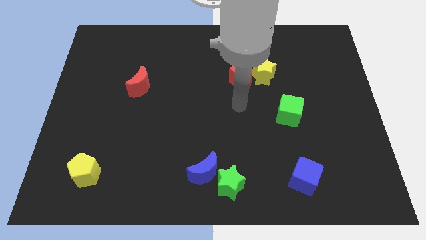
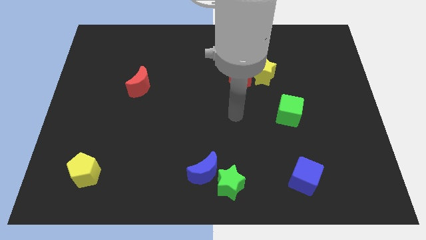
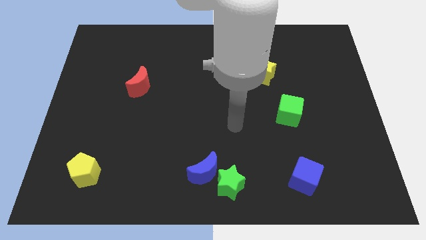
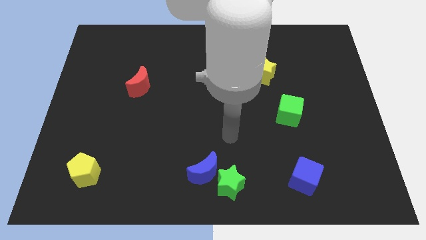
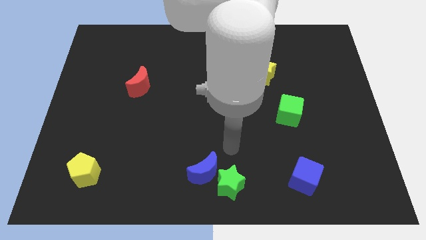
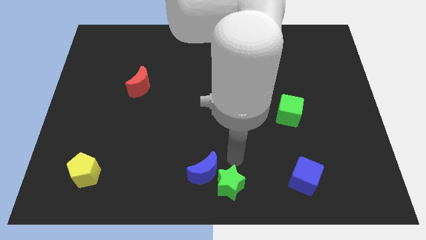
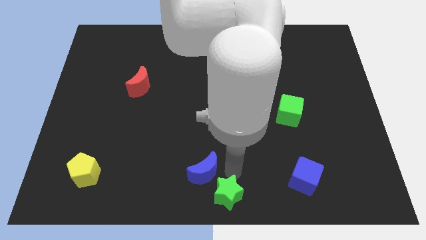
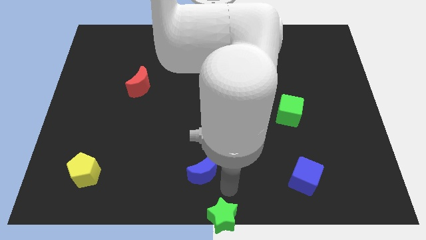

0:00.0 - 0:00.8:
separate the blue moon from the green star

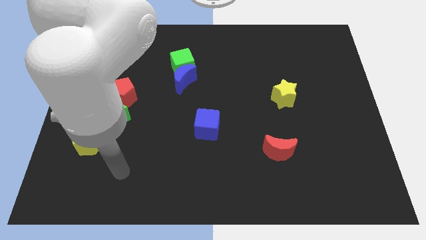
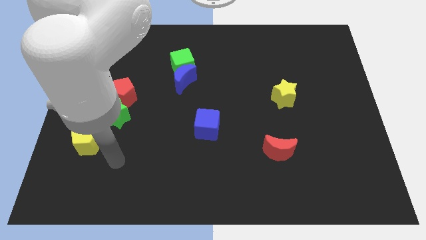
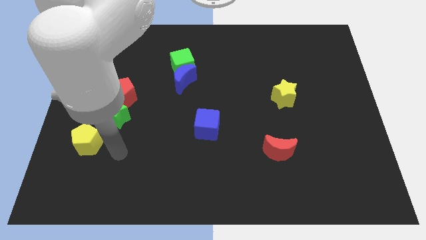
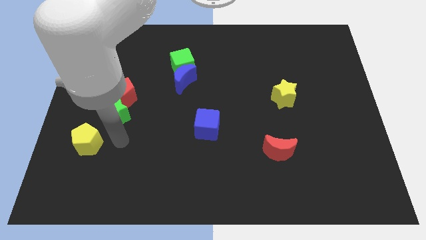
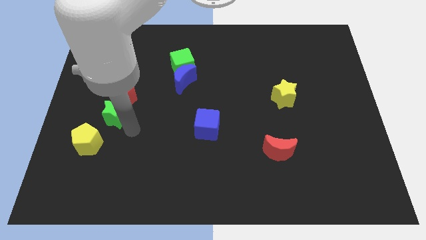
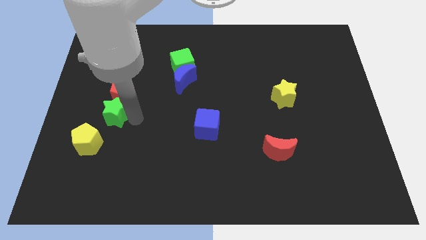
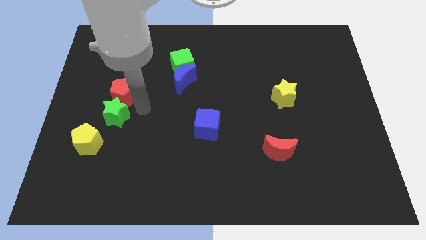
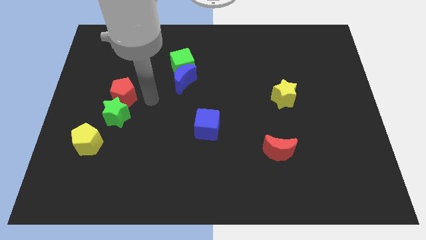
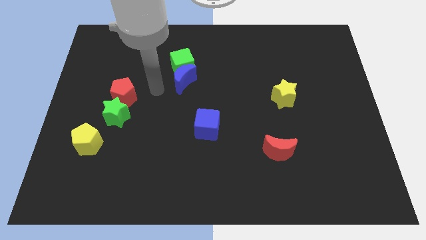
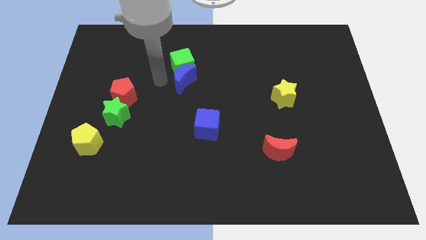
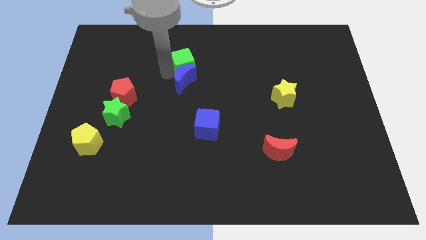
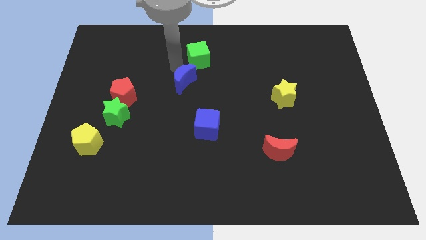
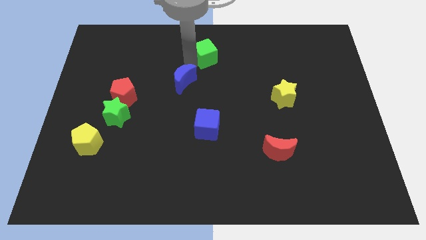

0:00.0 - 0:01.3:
pull the blue moon apart from the green cube

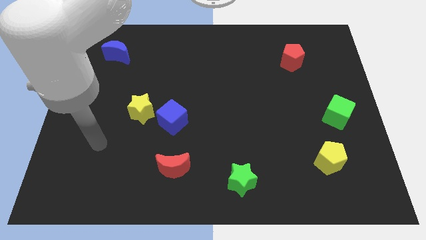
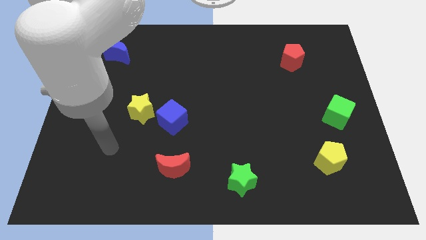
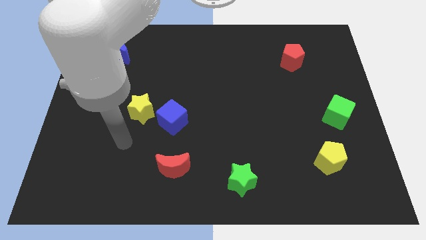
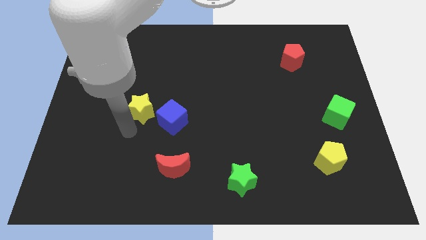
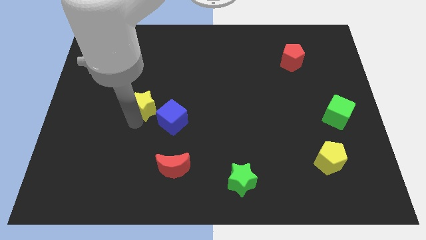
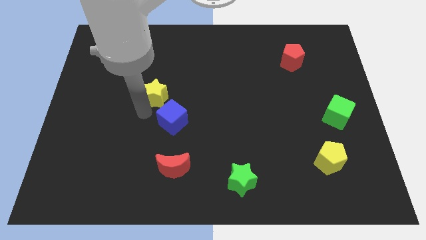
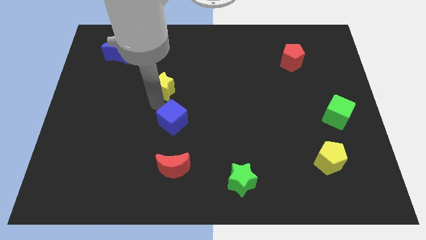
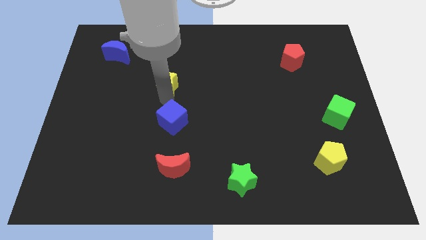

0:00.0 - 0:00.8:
pull the blue cube apart from the yellow star

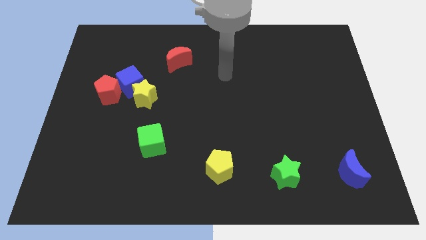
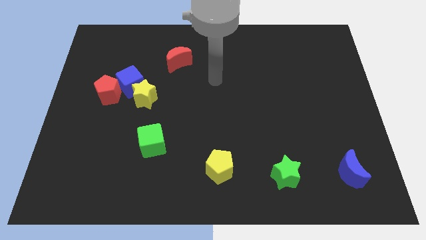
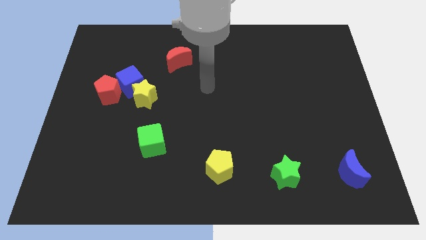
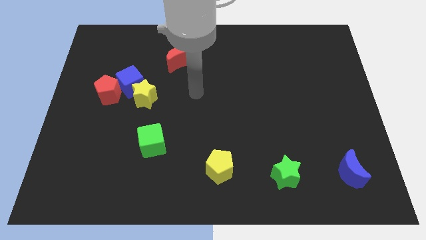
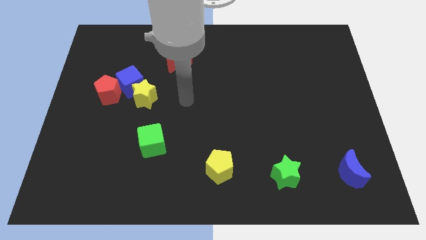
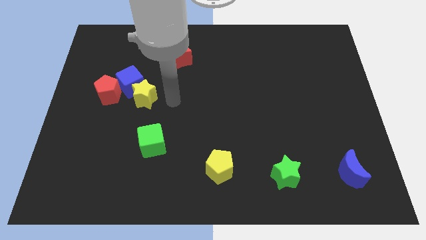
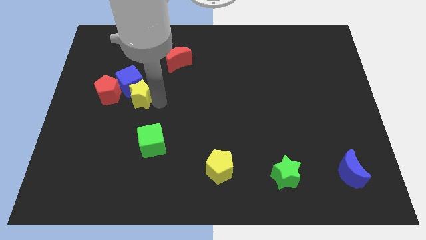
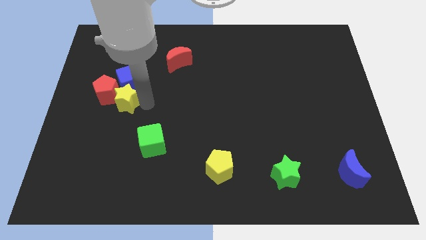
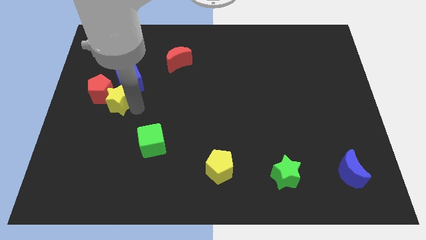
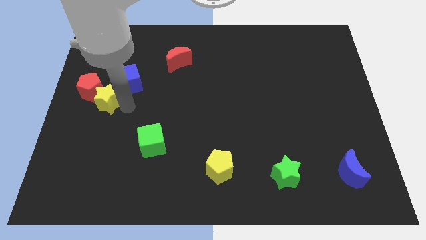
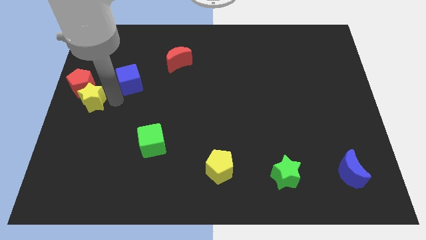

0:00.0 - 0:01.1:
separate the blue cube from the yellow star and red pentagon

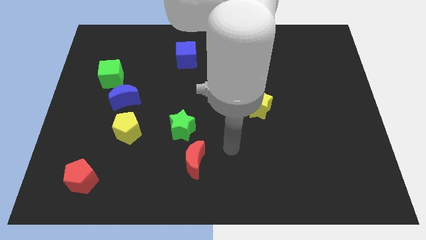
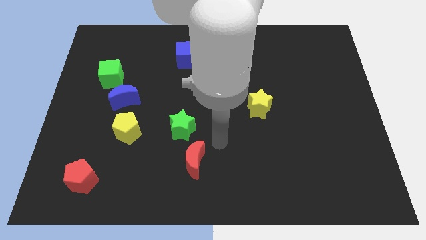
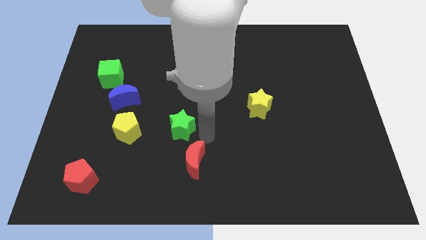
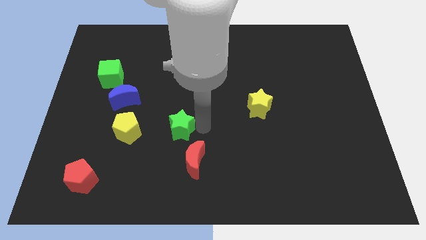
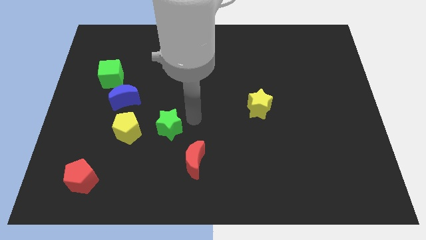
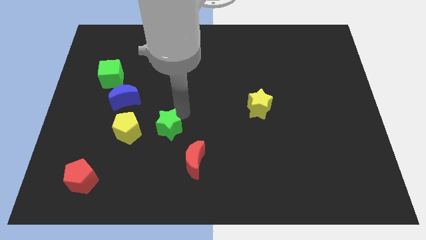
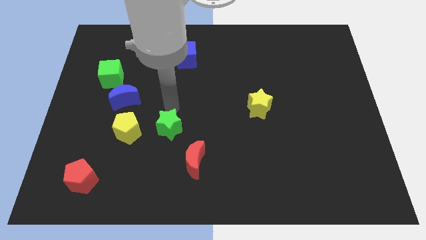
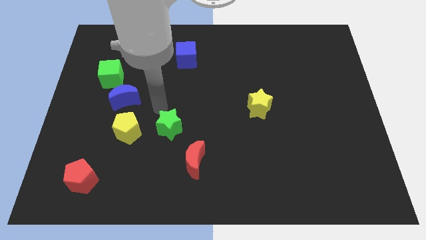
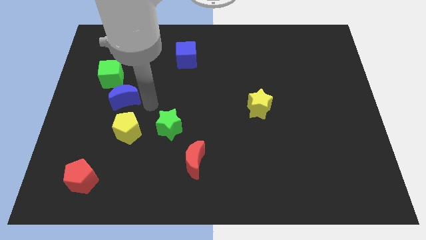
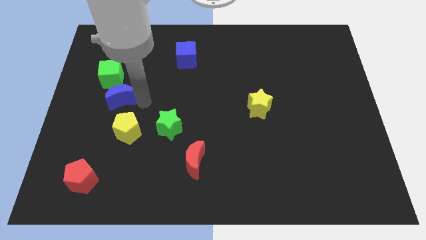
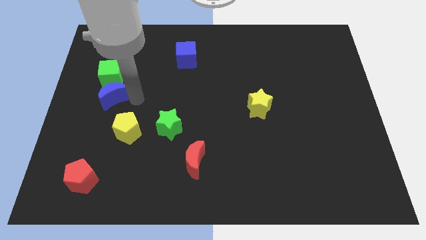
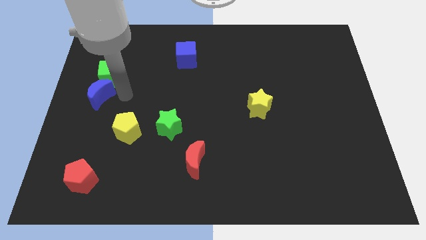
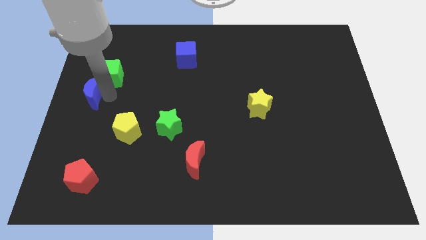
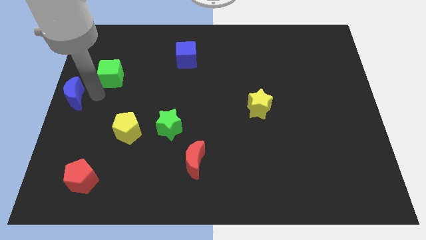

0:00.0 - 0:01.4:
separate the green cube from the blue moon

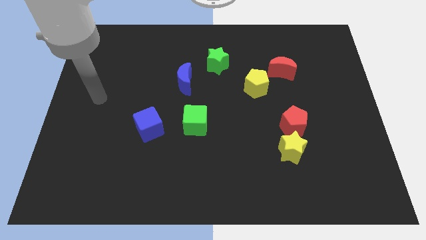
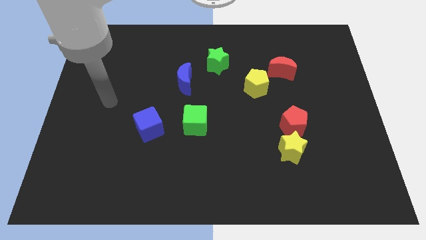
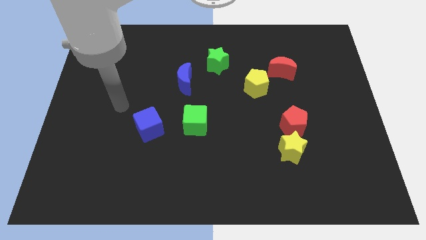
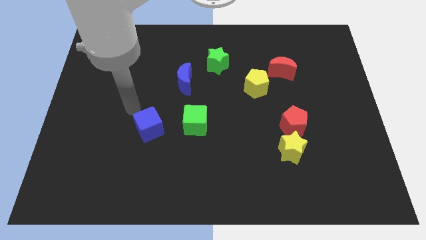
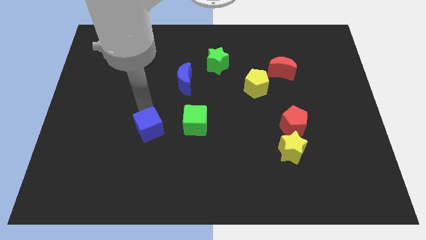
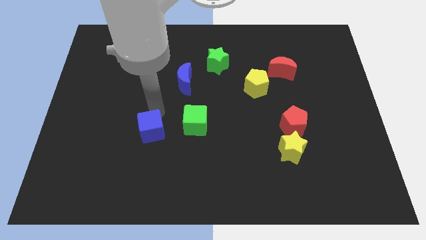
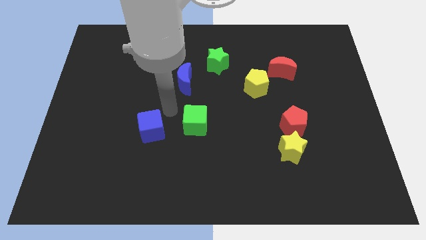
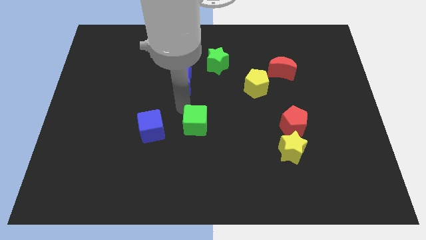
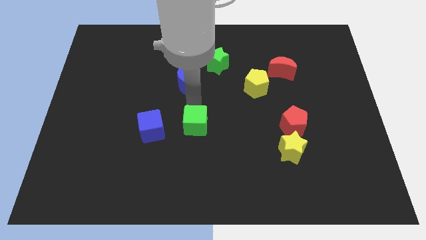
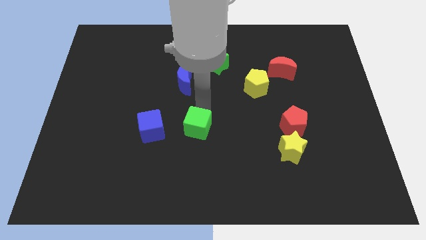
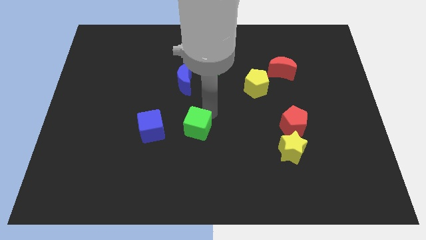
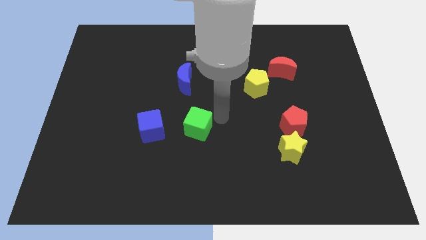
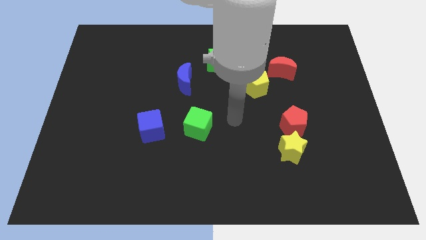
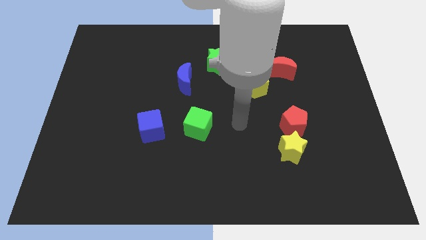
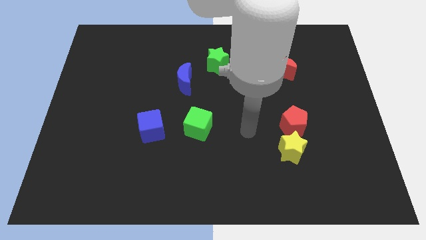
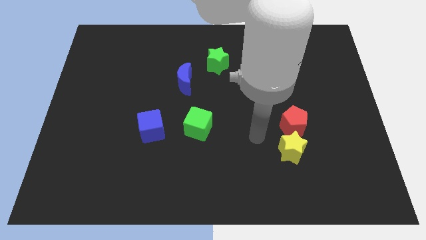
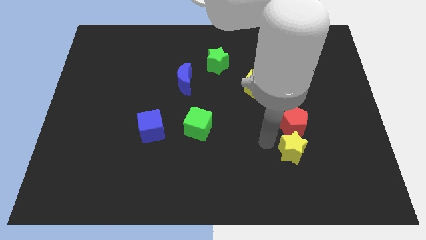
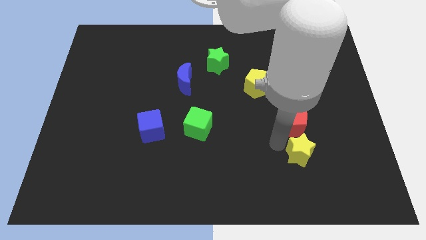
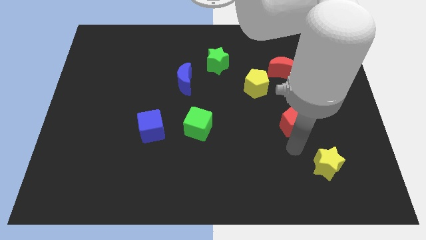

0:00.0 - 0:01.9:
move the red pentagon away from the yellow star

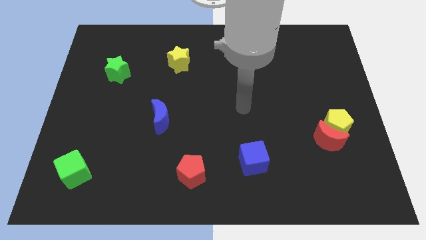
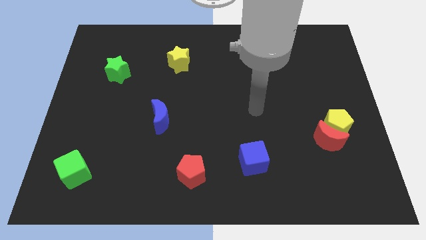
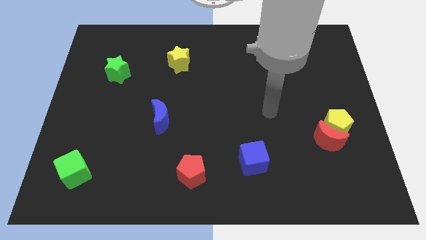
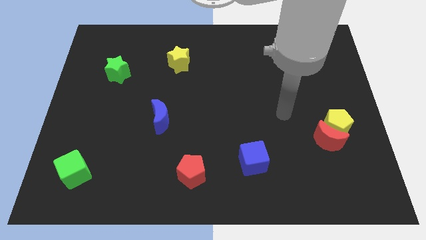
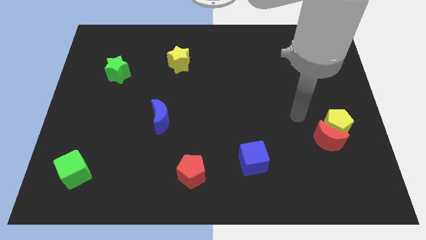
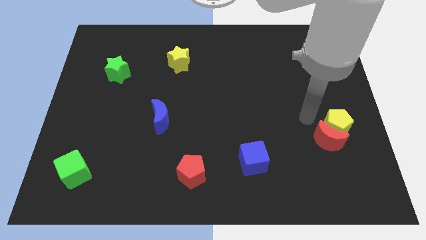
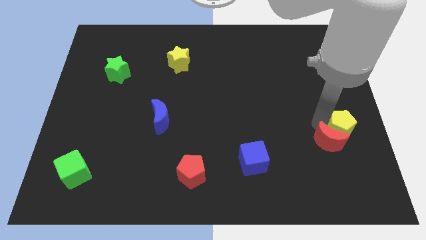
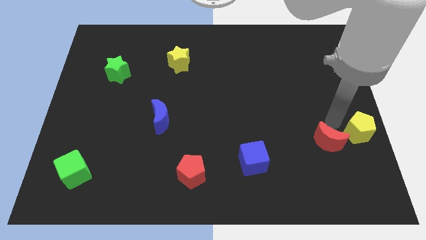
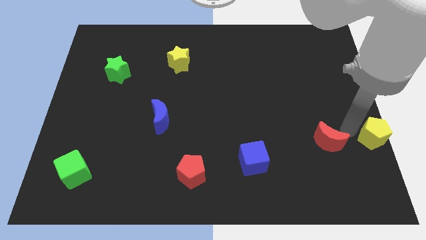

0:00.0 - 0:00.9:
move the red moon away from the yellow pentagon

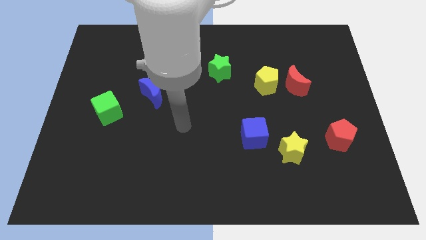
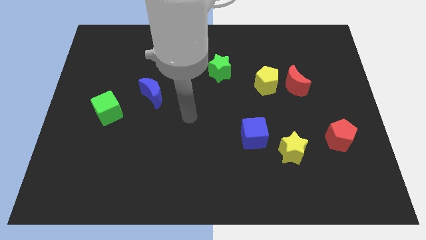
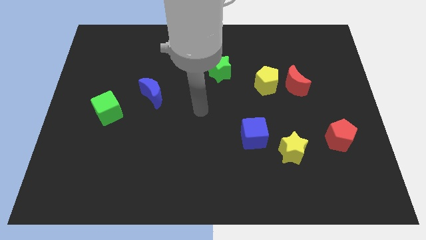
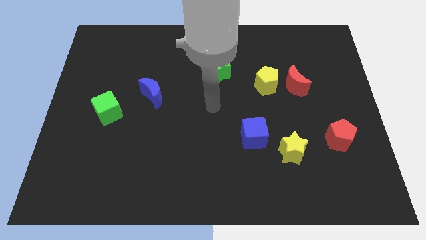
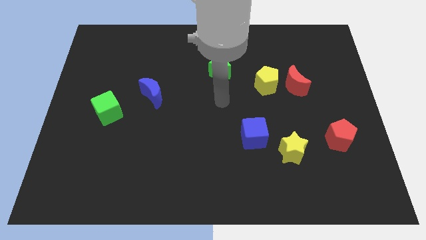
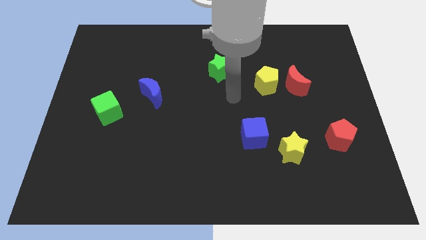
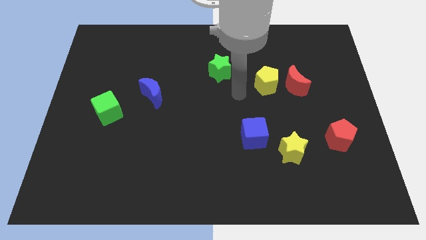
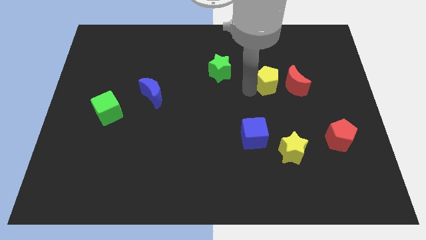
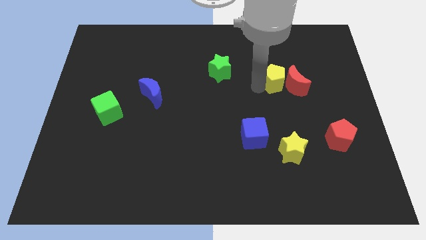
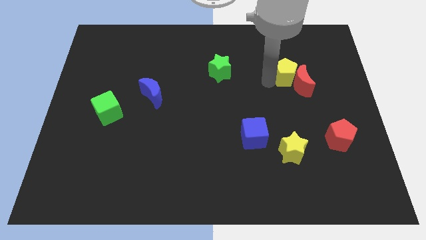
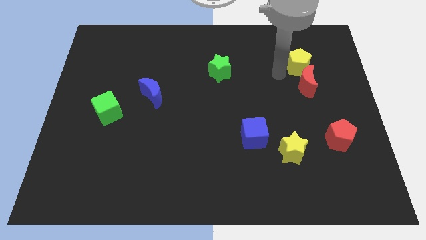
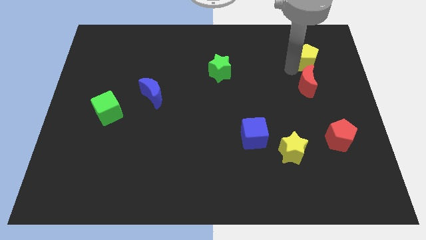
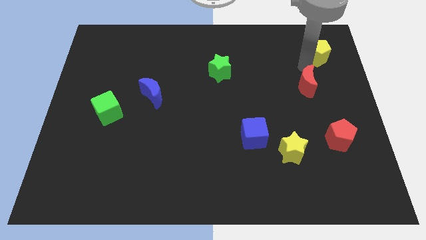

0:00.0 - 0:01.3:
pull the red moon apart from the yellow pentagon
